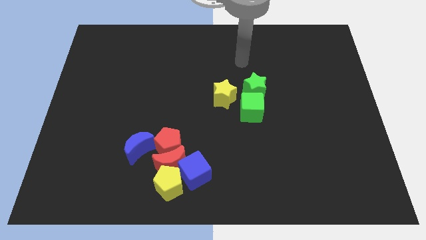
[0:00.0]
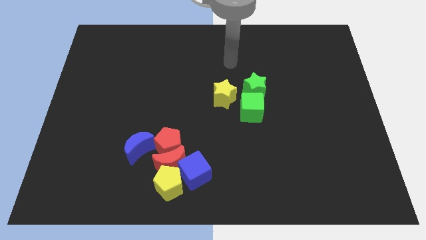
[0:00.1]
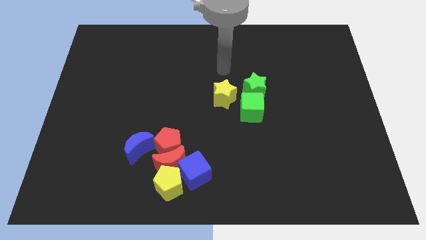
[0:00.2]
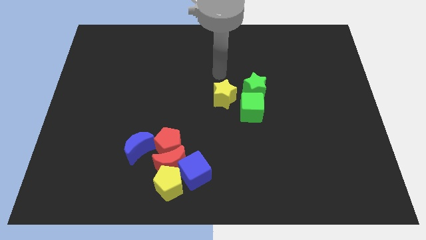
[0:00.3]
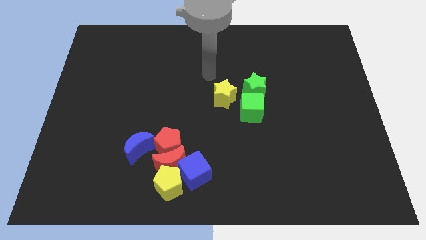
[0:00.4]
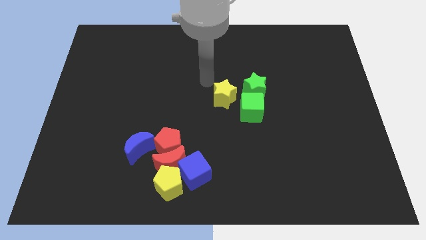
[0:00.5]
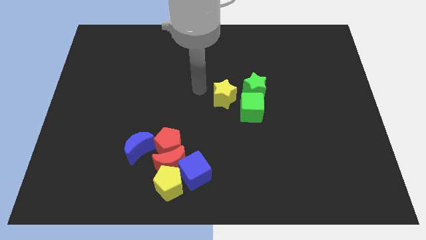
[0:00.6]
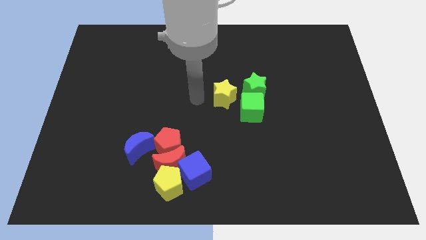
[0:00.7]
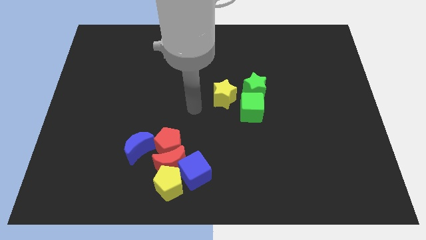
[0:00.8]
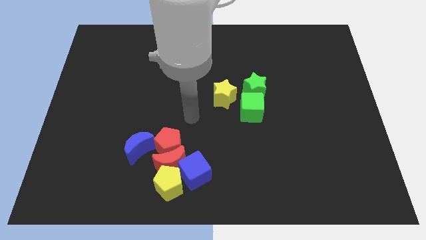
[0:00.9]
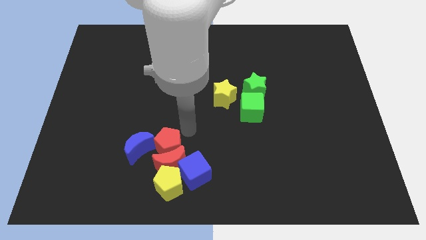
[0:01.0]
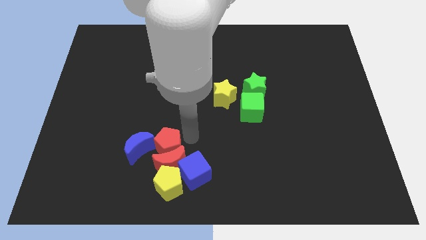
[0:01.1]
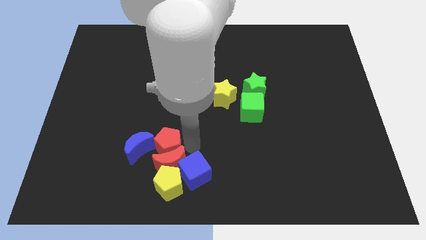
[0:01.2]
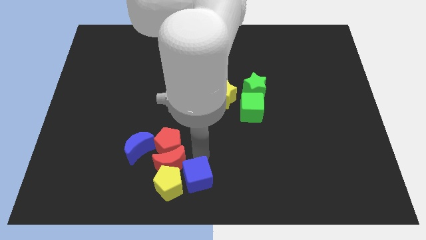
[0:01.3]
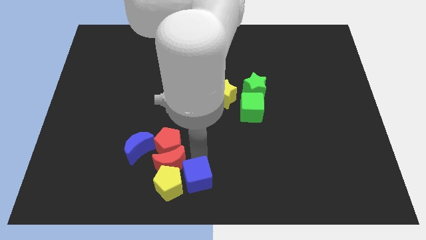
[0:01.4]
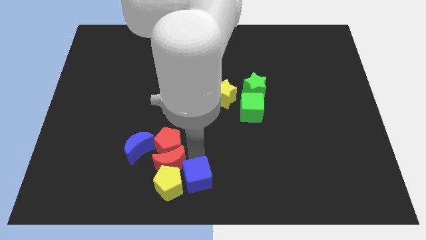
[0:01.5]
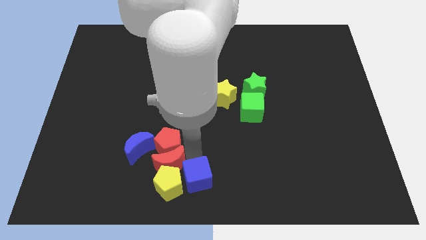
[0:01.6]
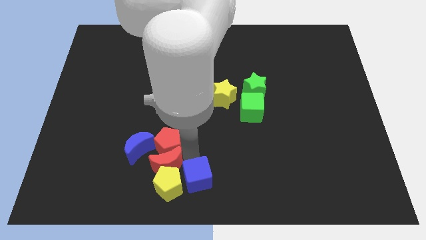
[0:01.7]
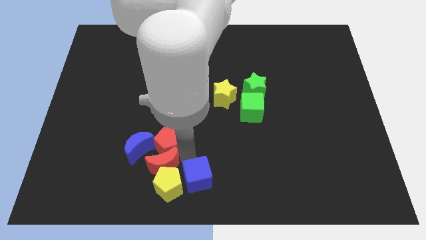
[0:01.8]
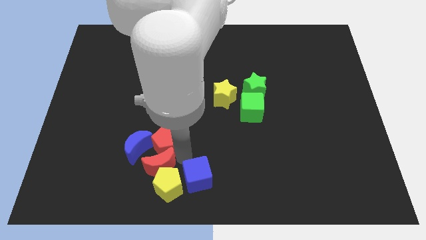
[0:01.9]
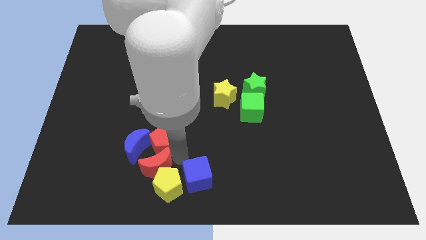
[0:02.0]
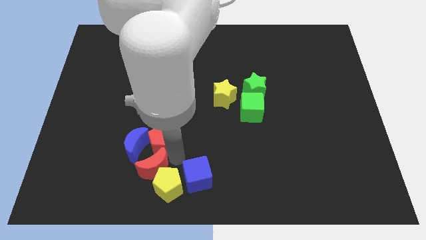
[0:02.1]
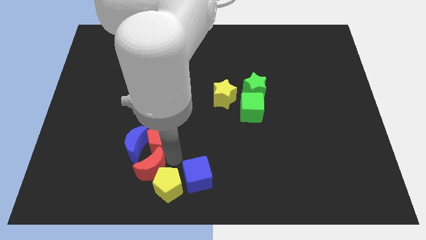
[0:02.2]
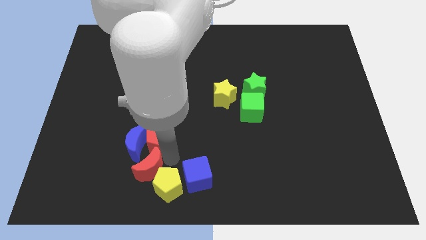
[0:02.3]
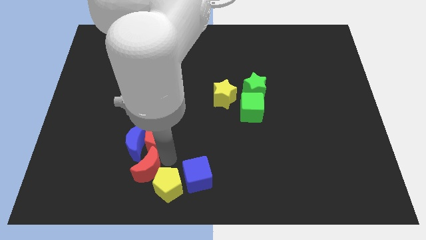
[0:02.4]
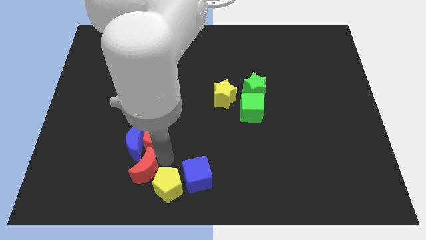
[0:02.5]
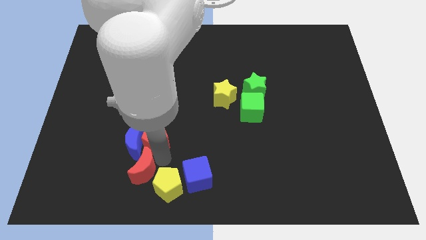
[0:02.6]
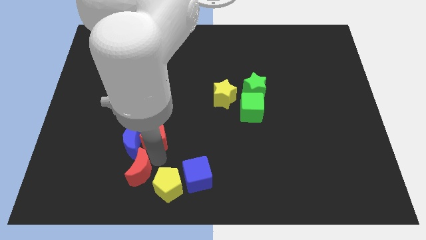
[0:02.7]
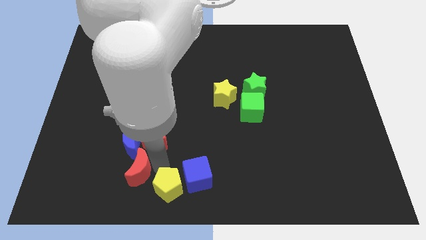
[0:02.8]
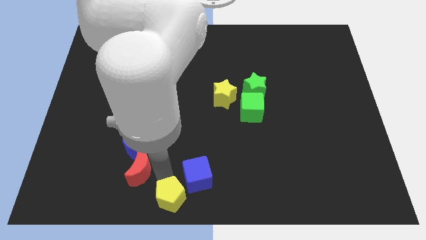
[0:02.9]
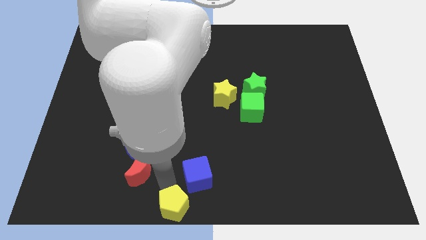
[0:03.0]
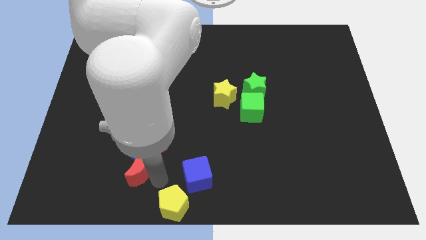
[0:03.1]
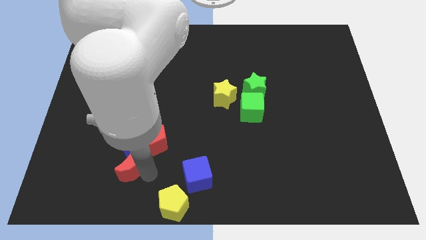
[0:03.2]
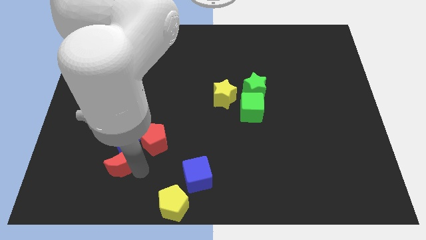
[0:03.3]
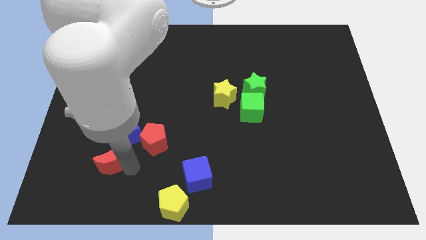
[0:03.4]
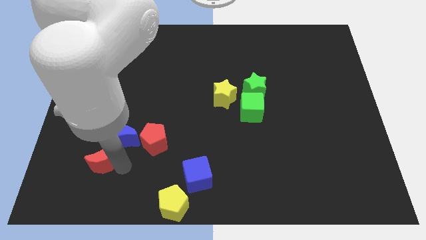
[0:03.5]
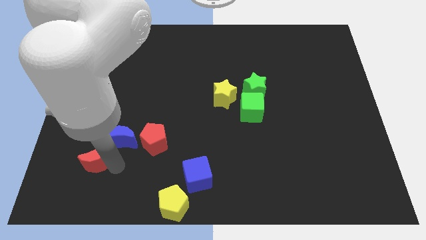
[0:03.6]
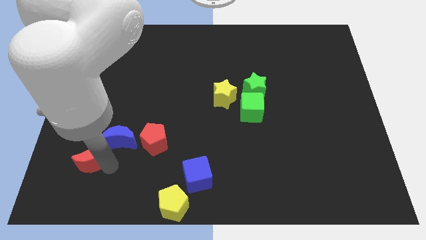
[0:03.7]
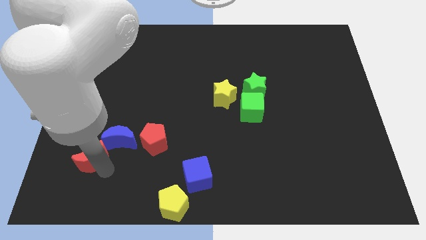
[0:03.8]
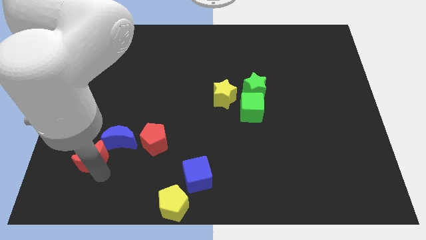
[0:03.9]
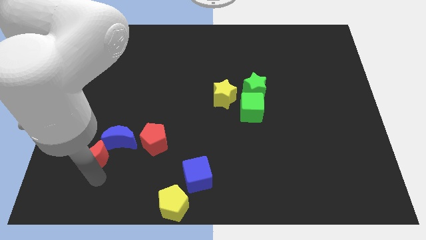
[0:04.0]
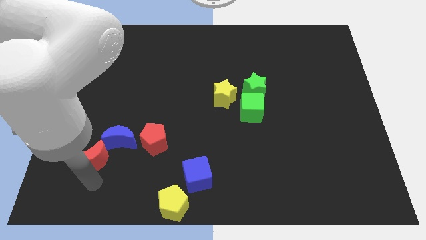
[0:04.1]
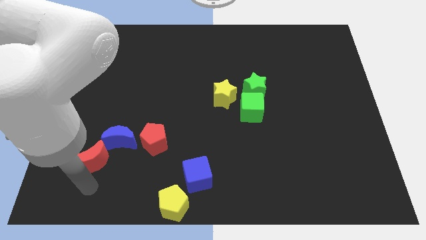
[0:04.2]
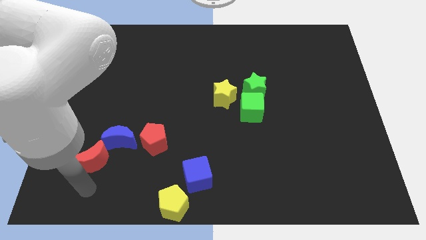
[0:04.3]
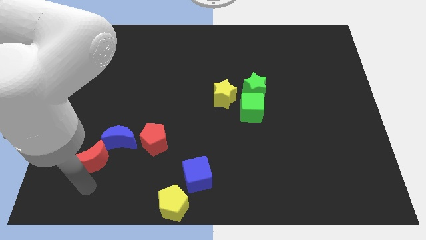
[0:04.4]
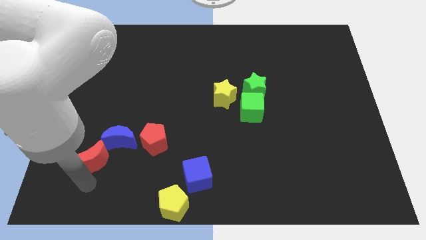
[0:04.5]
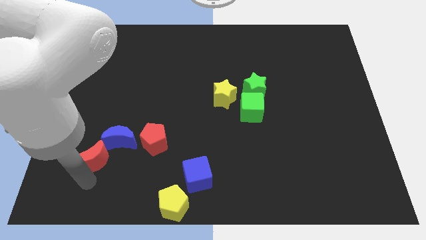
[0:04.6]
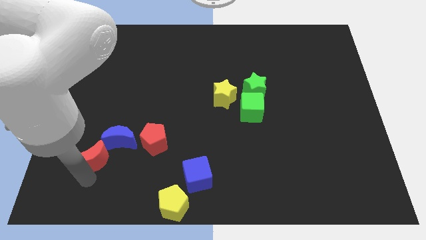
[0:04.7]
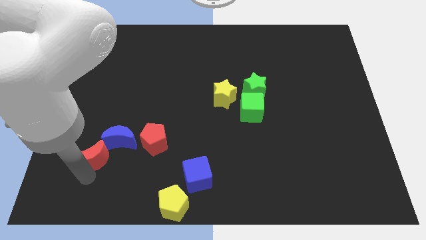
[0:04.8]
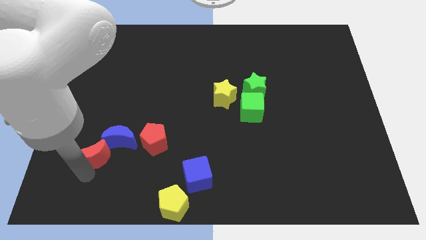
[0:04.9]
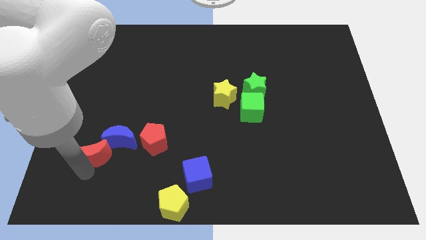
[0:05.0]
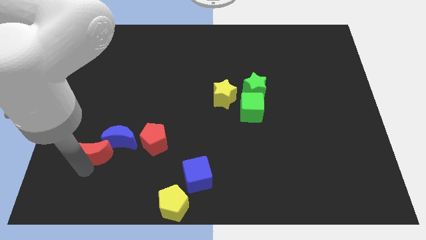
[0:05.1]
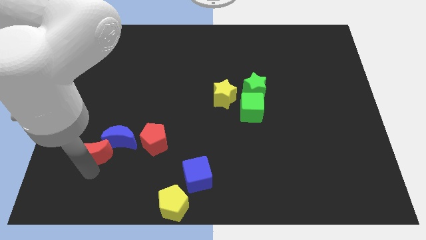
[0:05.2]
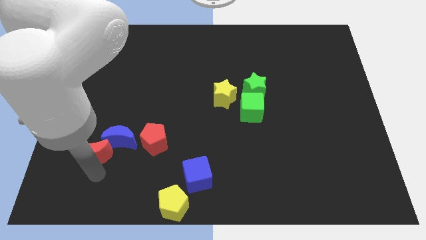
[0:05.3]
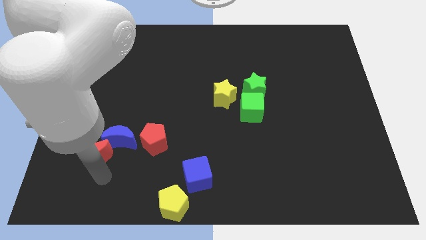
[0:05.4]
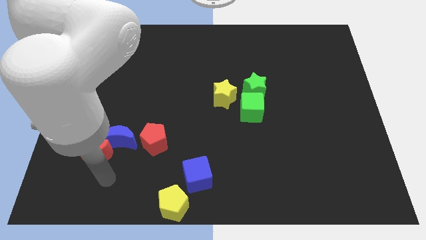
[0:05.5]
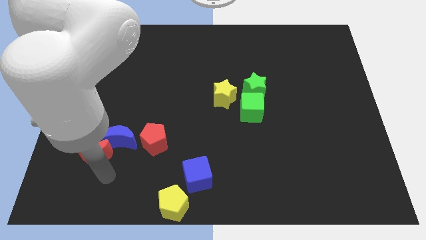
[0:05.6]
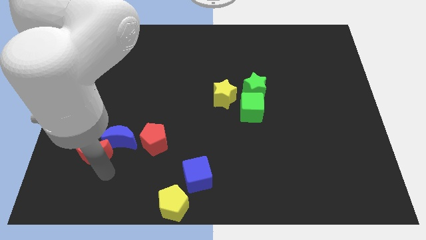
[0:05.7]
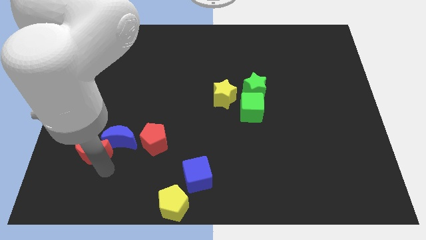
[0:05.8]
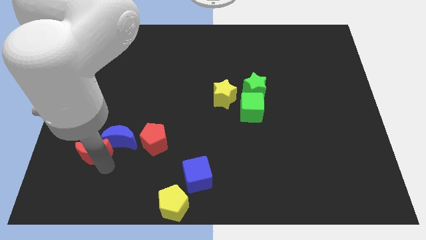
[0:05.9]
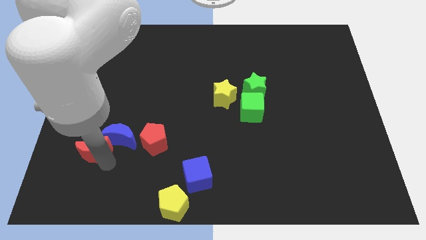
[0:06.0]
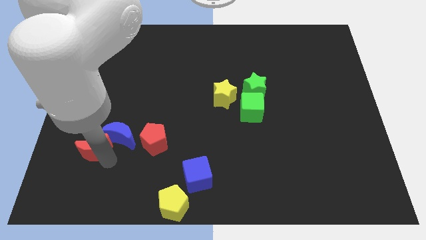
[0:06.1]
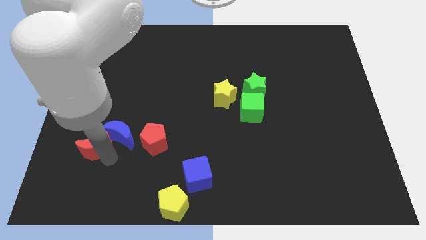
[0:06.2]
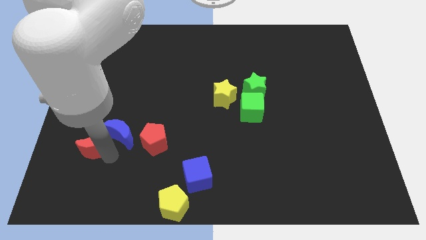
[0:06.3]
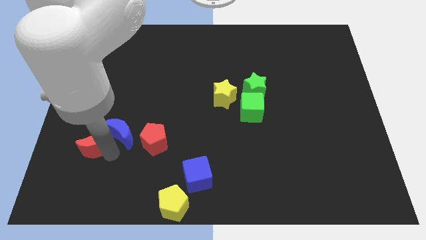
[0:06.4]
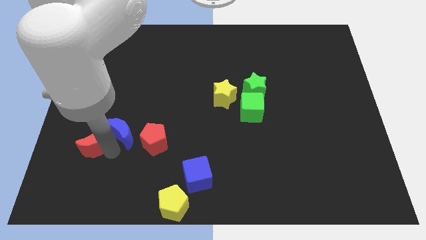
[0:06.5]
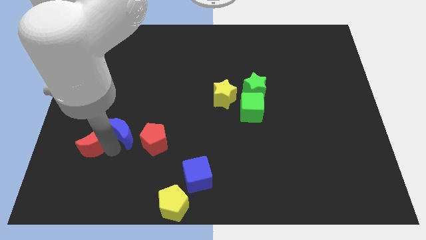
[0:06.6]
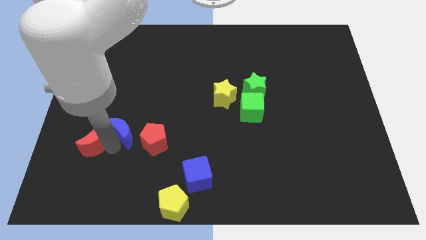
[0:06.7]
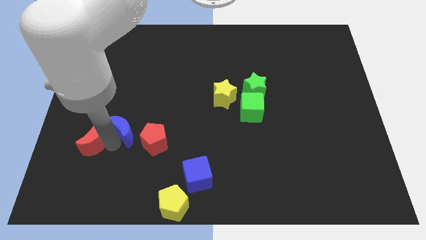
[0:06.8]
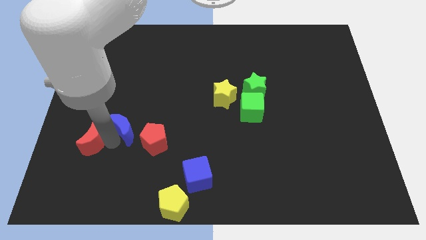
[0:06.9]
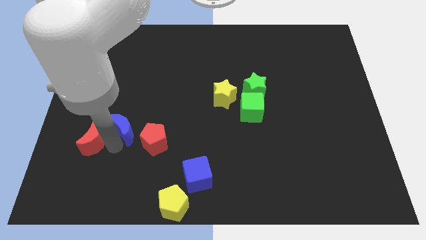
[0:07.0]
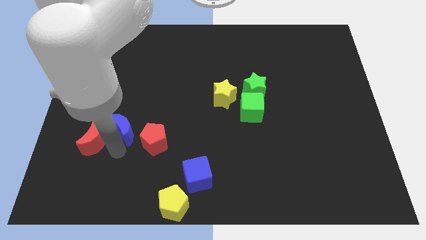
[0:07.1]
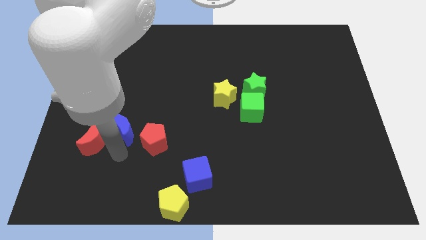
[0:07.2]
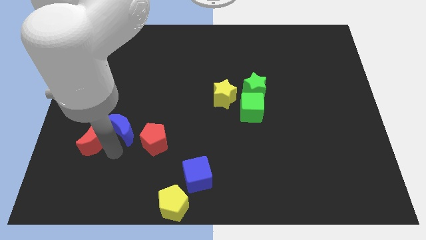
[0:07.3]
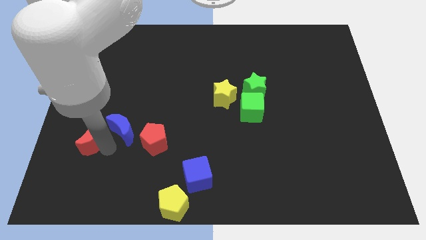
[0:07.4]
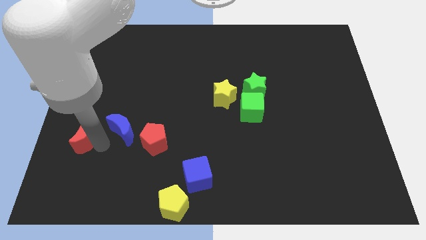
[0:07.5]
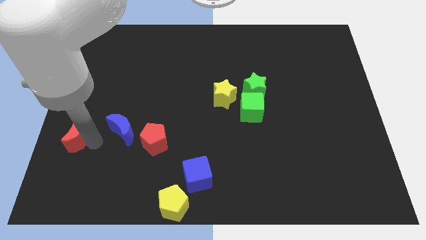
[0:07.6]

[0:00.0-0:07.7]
slide the red moon to the left side
